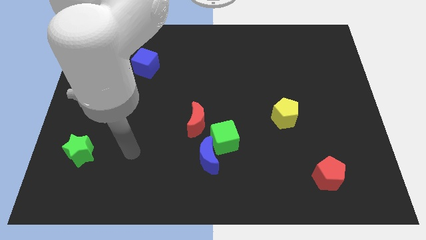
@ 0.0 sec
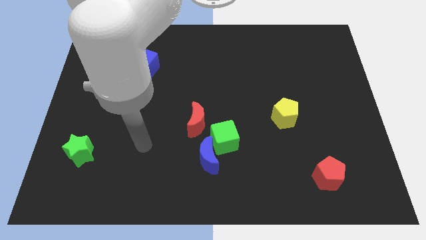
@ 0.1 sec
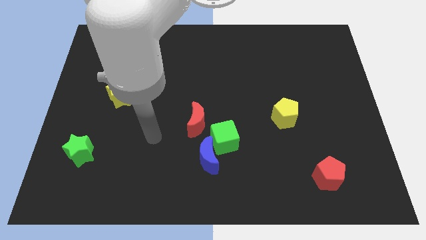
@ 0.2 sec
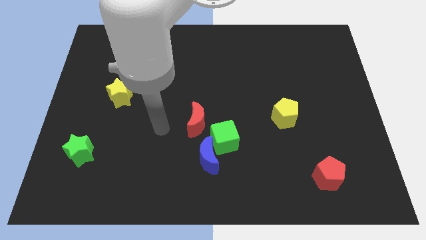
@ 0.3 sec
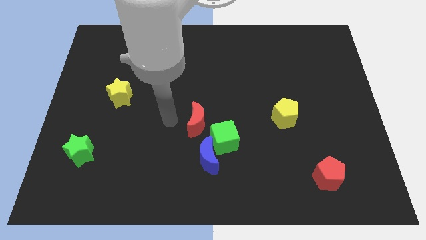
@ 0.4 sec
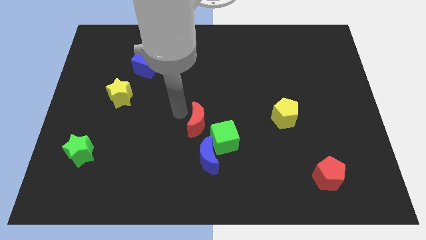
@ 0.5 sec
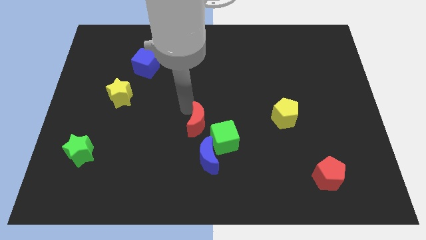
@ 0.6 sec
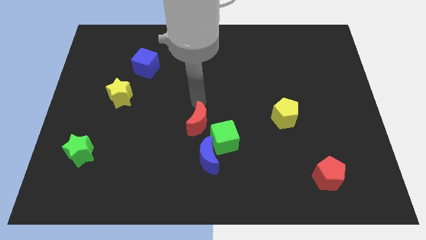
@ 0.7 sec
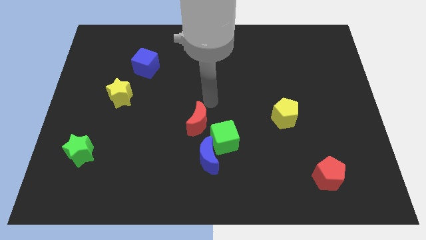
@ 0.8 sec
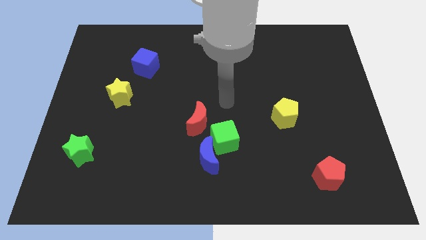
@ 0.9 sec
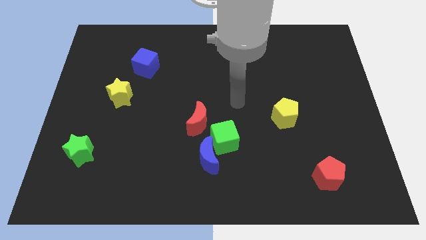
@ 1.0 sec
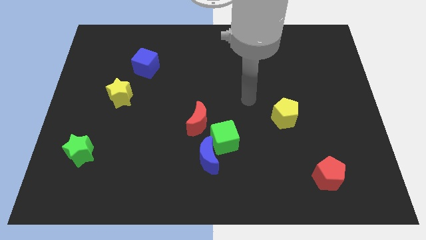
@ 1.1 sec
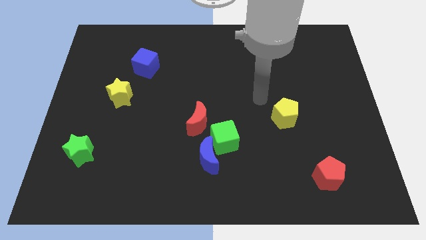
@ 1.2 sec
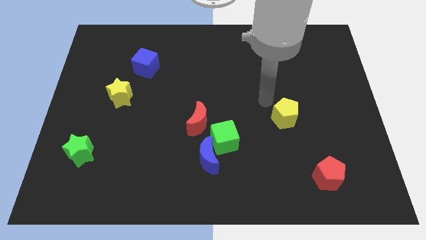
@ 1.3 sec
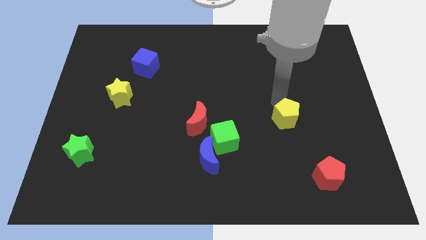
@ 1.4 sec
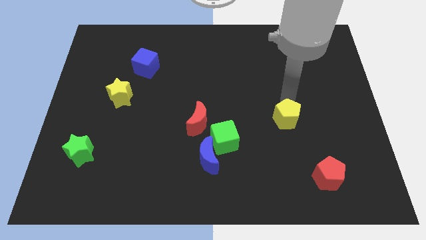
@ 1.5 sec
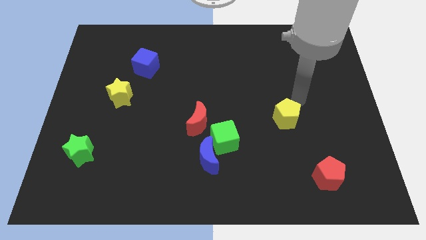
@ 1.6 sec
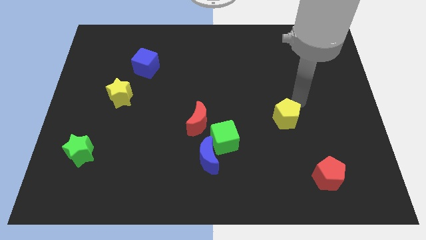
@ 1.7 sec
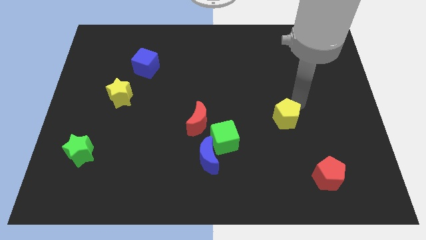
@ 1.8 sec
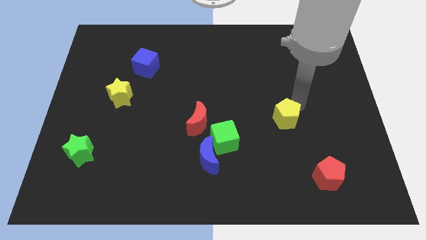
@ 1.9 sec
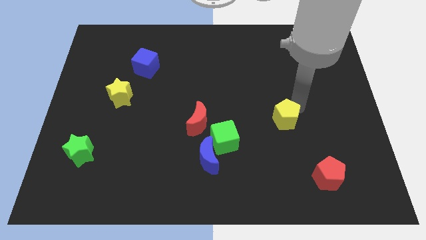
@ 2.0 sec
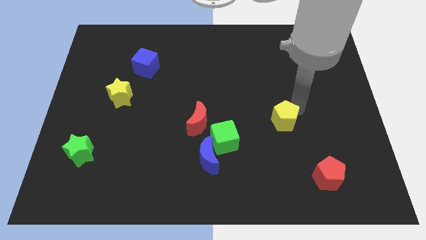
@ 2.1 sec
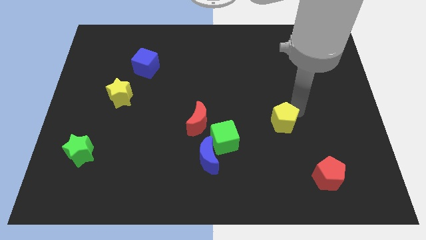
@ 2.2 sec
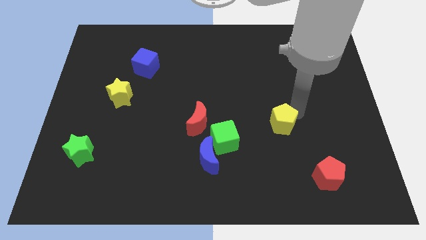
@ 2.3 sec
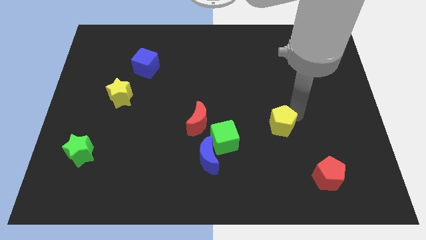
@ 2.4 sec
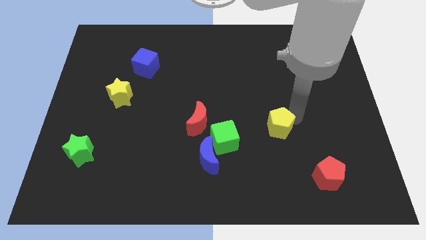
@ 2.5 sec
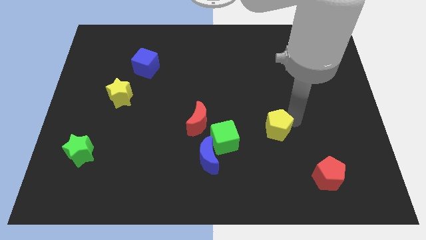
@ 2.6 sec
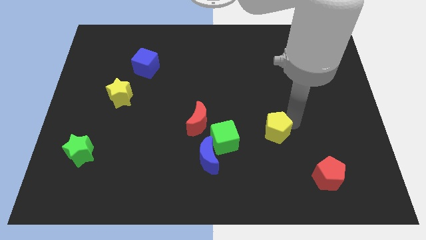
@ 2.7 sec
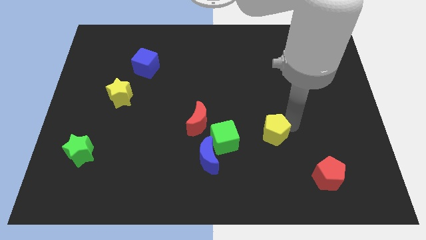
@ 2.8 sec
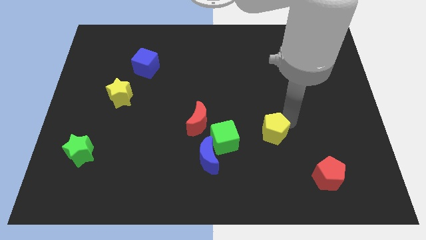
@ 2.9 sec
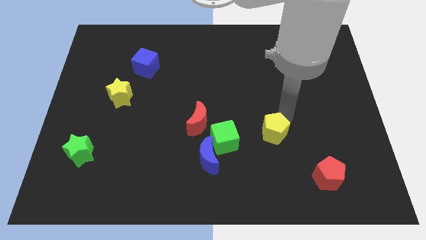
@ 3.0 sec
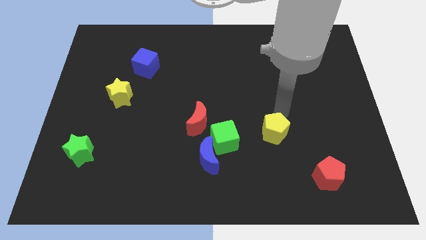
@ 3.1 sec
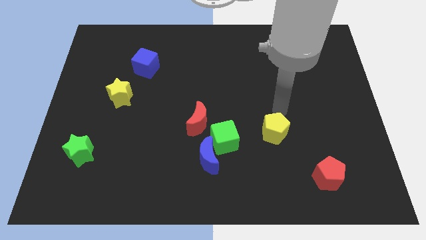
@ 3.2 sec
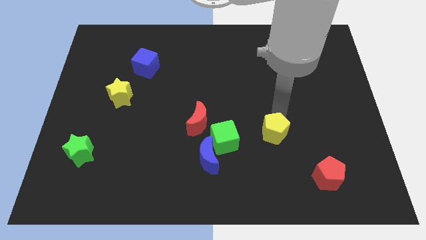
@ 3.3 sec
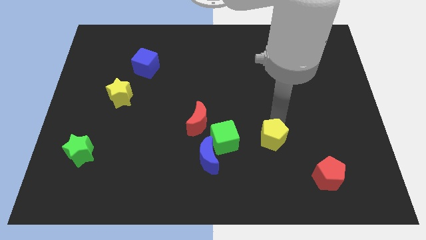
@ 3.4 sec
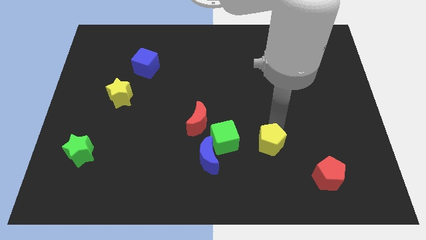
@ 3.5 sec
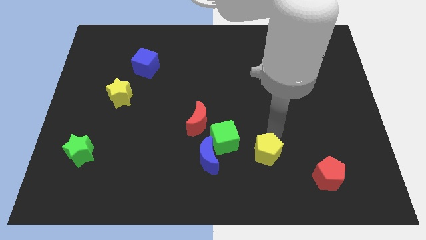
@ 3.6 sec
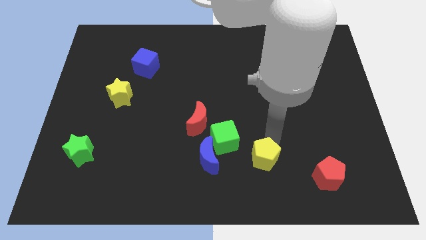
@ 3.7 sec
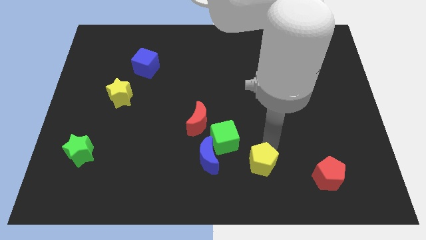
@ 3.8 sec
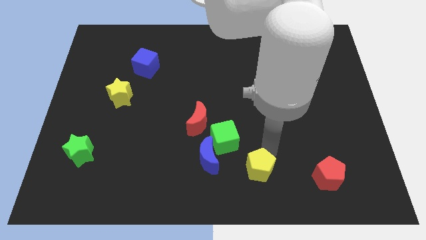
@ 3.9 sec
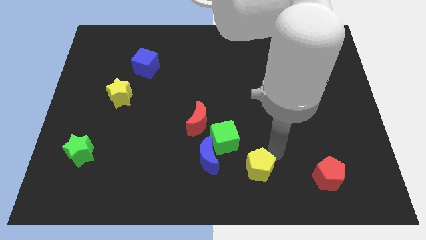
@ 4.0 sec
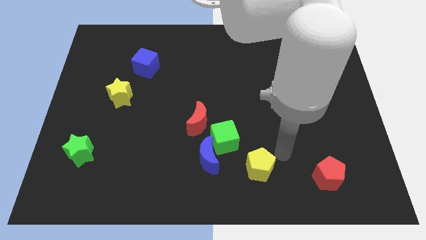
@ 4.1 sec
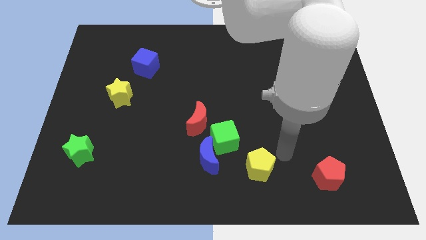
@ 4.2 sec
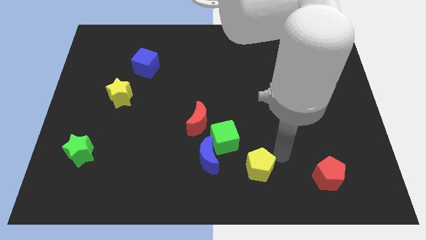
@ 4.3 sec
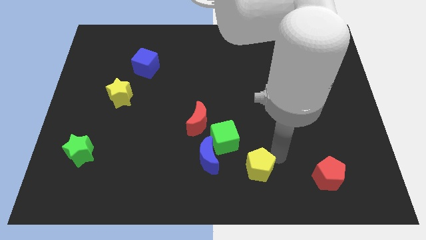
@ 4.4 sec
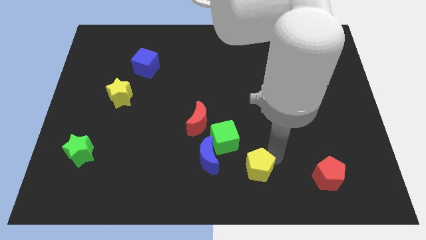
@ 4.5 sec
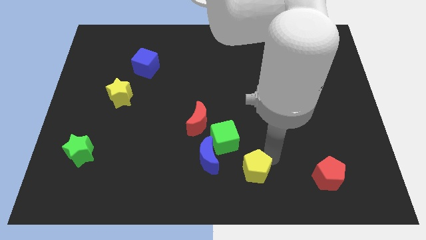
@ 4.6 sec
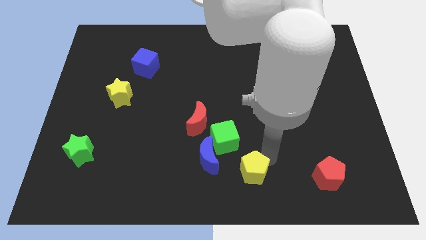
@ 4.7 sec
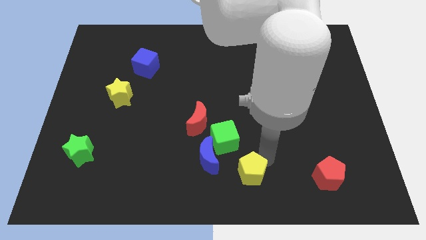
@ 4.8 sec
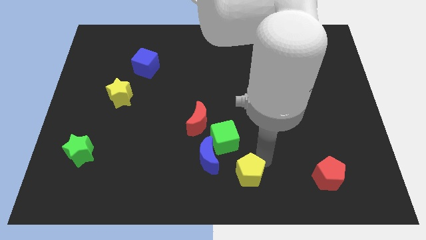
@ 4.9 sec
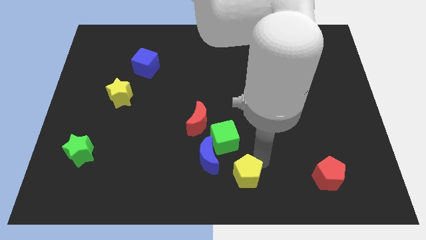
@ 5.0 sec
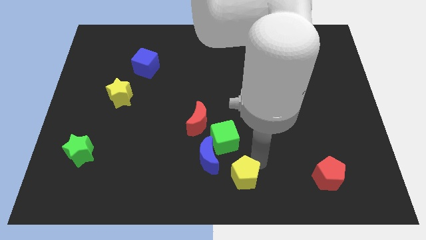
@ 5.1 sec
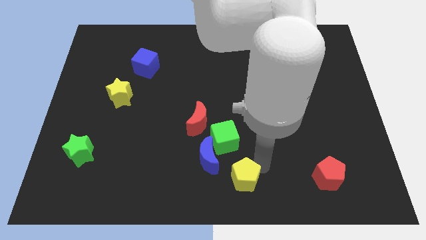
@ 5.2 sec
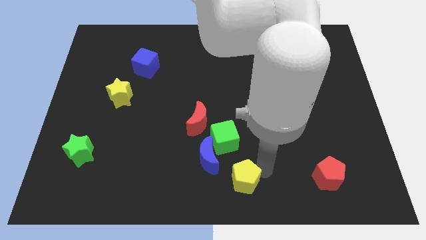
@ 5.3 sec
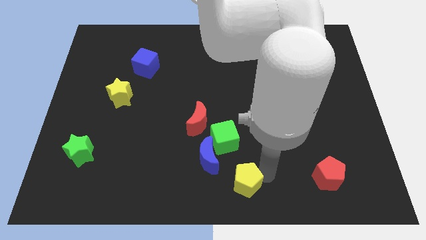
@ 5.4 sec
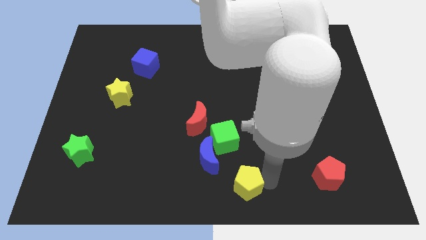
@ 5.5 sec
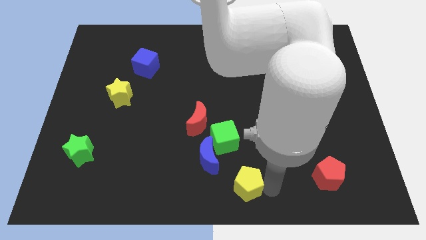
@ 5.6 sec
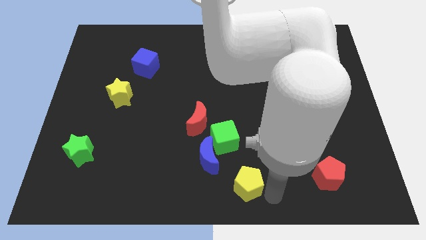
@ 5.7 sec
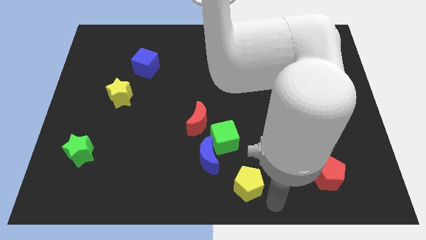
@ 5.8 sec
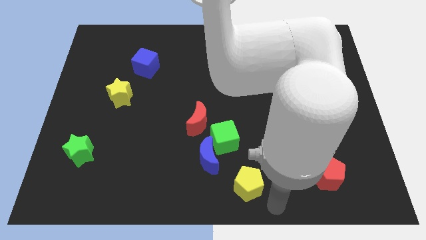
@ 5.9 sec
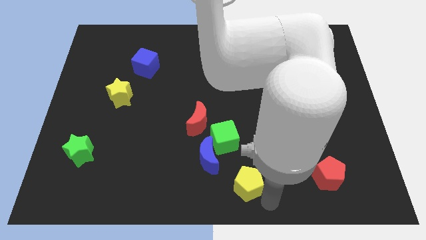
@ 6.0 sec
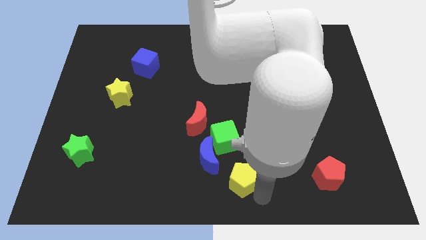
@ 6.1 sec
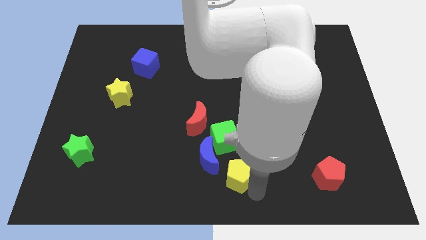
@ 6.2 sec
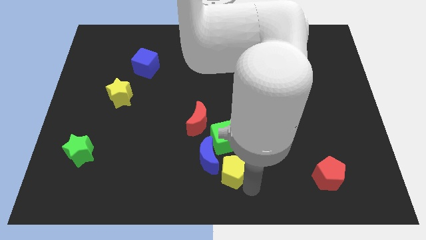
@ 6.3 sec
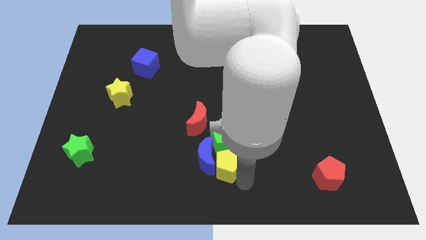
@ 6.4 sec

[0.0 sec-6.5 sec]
put the yellow pentagon towards the blue moon
